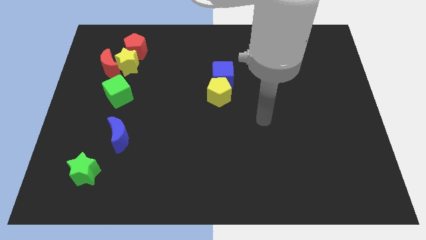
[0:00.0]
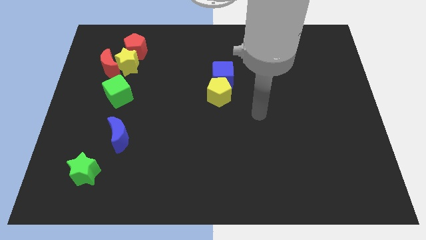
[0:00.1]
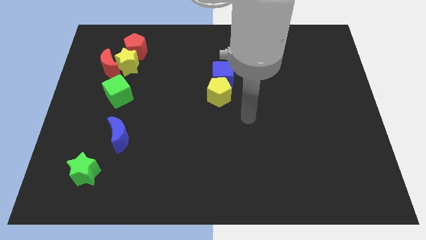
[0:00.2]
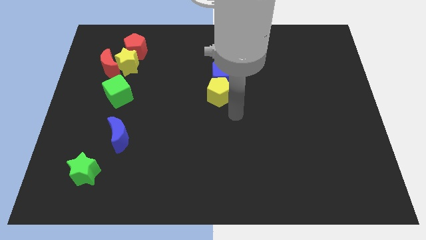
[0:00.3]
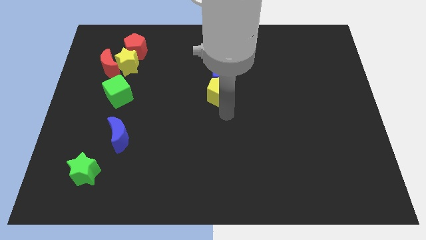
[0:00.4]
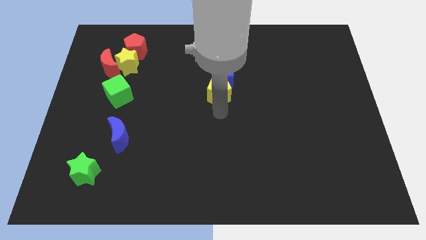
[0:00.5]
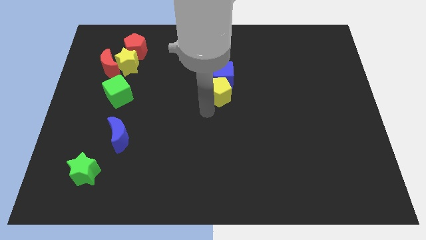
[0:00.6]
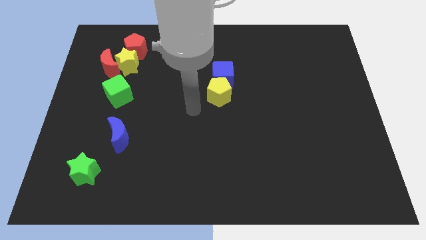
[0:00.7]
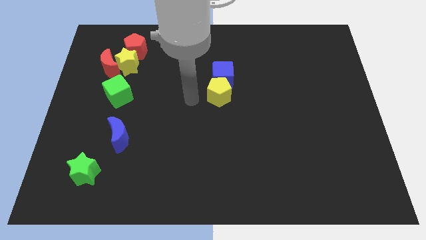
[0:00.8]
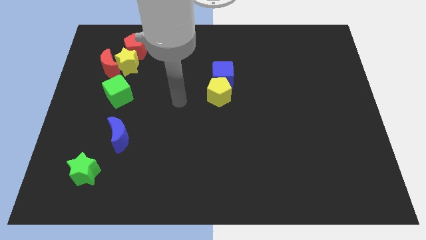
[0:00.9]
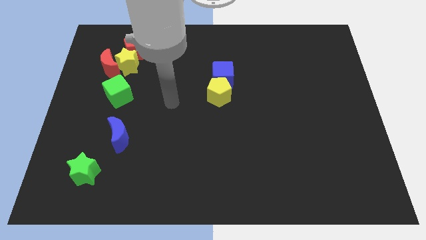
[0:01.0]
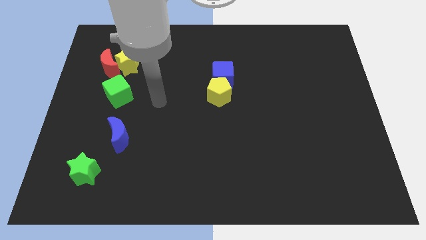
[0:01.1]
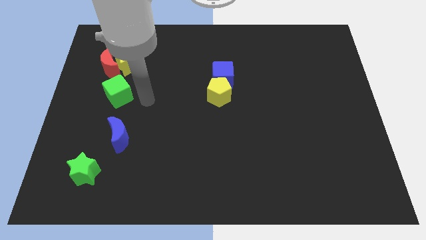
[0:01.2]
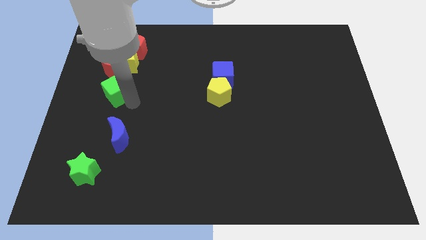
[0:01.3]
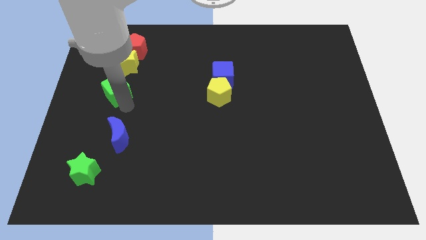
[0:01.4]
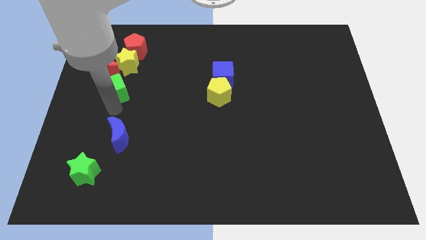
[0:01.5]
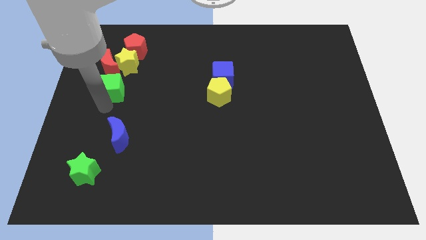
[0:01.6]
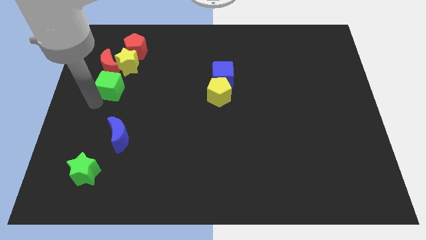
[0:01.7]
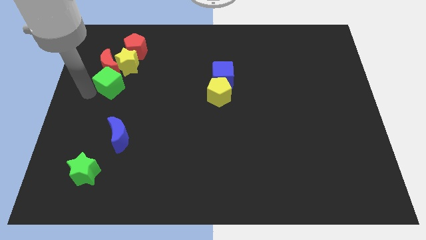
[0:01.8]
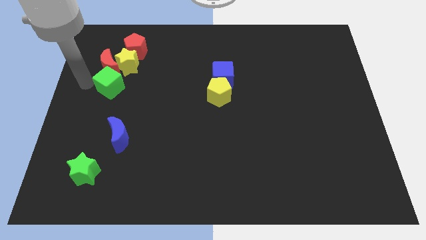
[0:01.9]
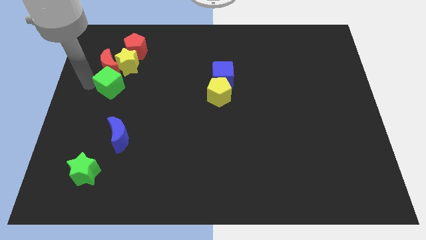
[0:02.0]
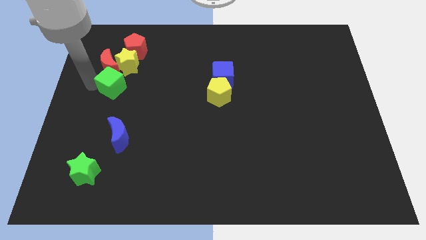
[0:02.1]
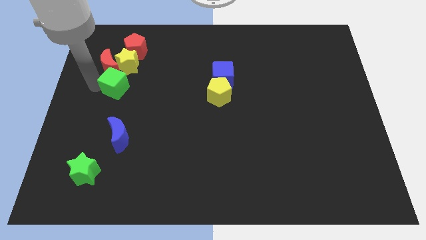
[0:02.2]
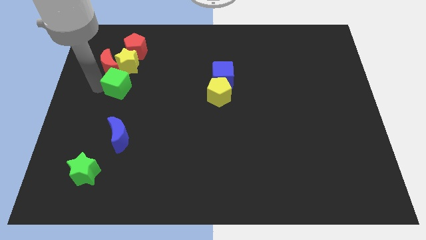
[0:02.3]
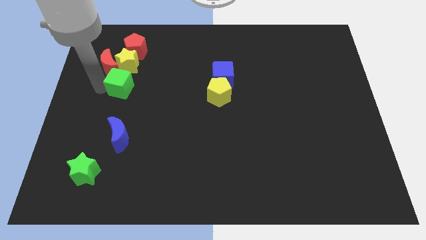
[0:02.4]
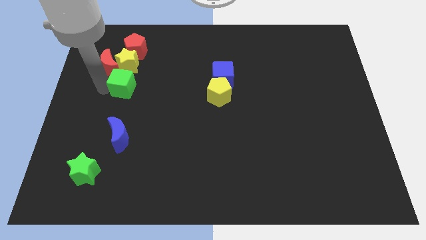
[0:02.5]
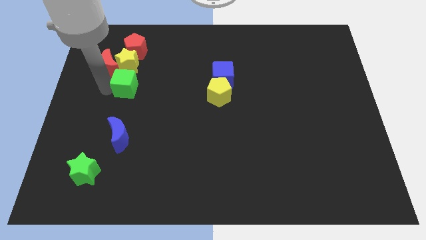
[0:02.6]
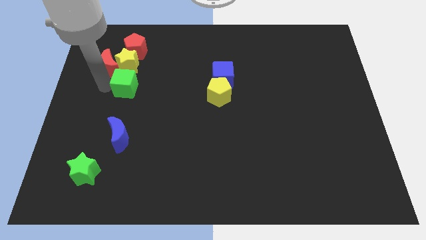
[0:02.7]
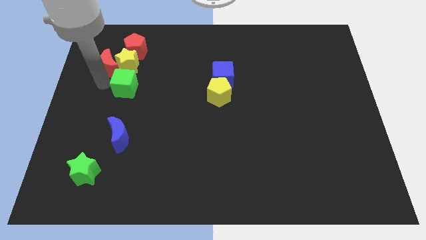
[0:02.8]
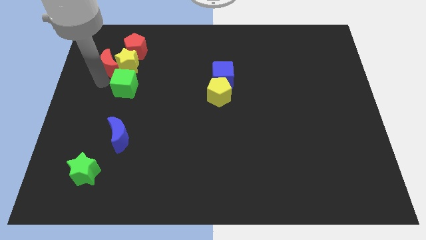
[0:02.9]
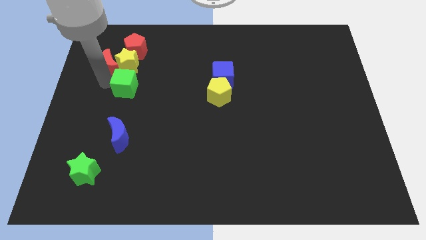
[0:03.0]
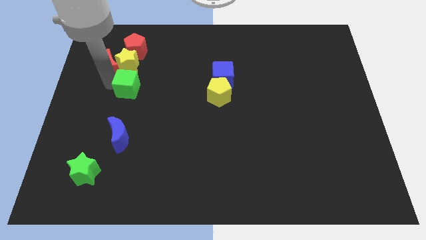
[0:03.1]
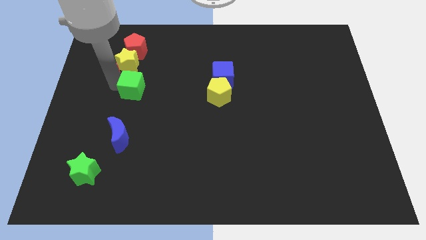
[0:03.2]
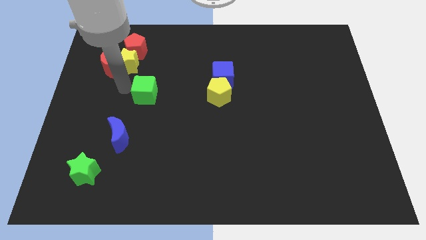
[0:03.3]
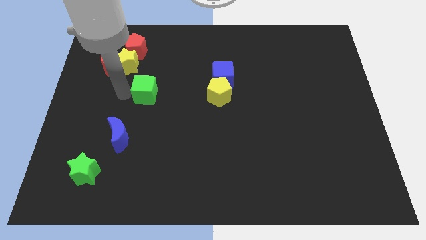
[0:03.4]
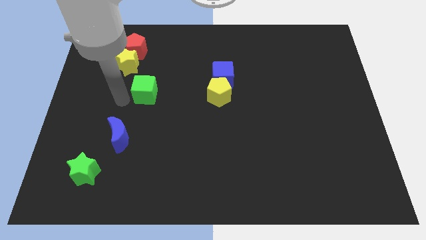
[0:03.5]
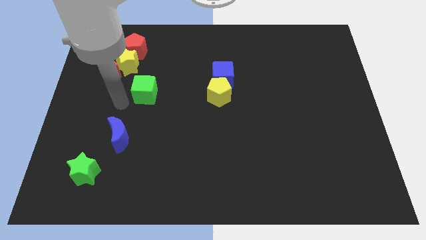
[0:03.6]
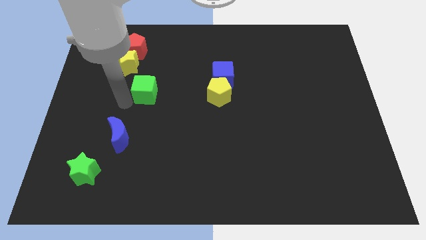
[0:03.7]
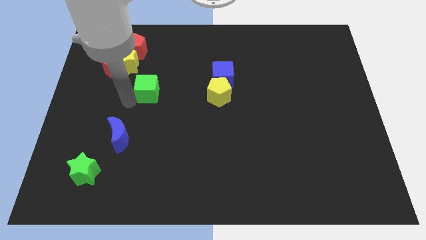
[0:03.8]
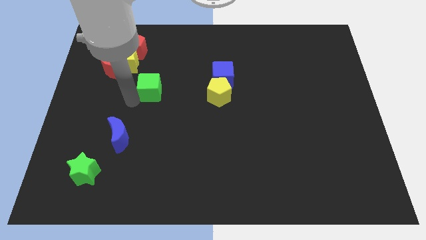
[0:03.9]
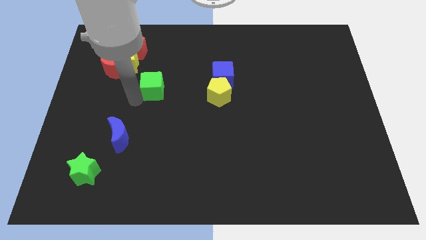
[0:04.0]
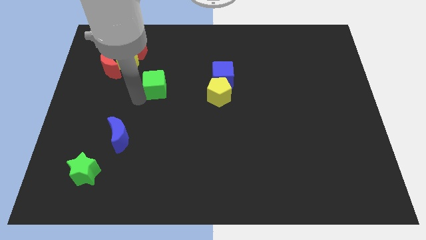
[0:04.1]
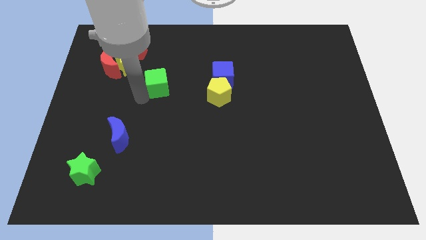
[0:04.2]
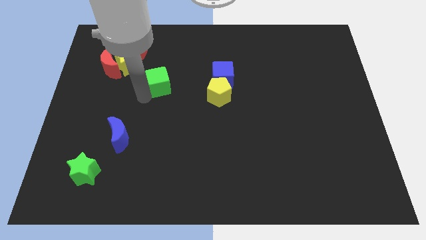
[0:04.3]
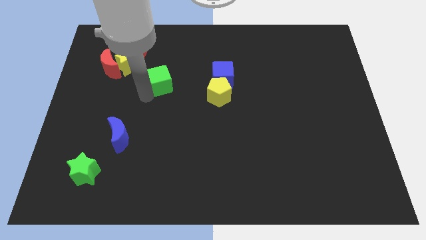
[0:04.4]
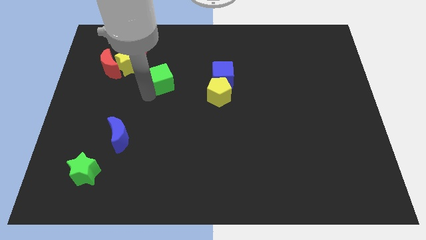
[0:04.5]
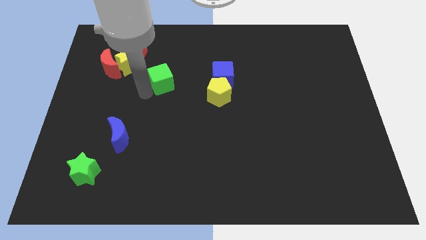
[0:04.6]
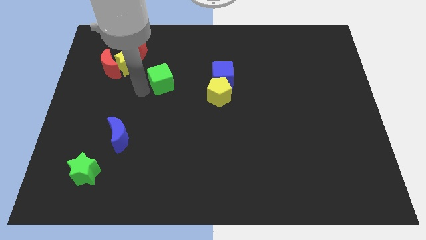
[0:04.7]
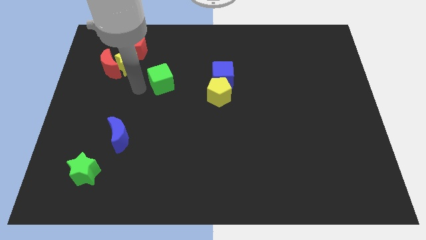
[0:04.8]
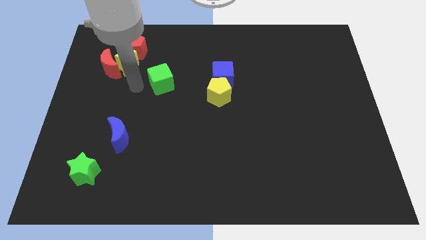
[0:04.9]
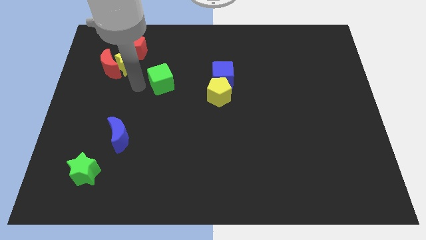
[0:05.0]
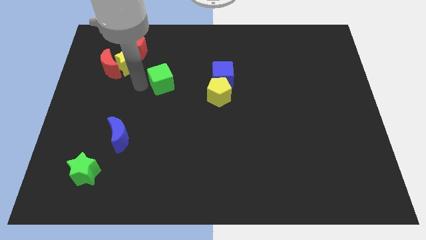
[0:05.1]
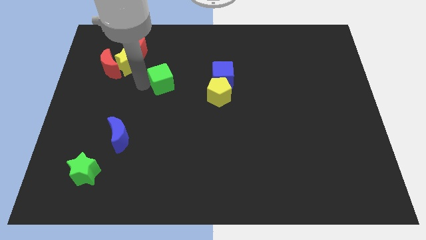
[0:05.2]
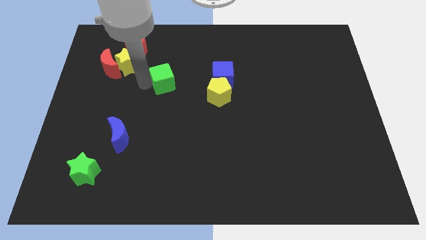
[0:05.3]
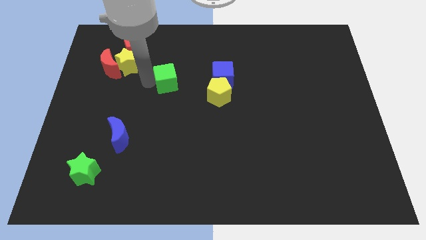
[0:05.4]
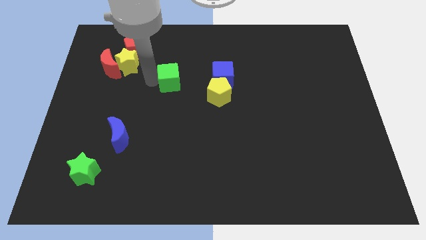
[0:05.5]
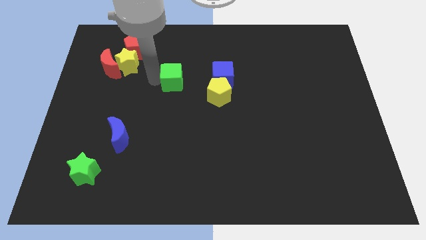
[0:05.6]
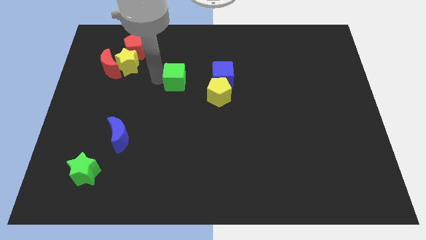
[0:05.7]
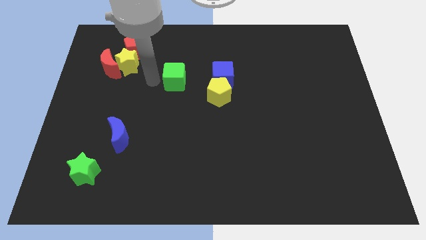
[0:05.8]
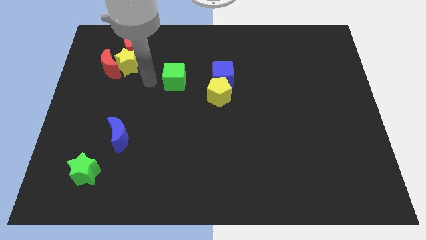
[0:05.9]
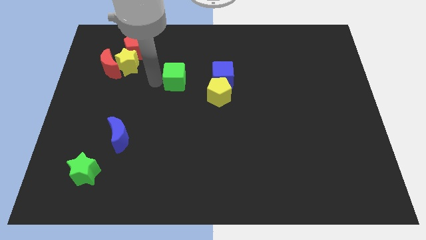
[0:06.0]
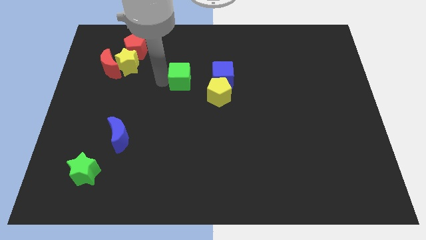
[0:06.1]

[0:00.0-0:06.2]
move the green cube to the top left side of the yellow pentagon

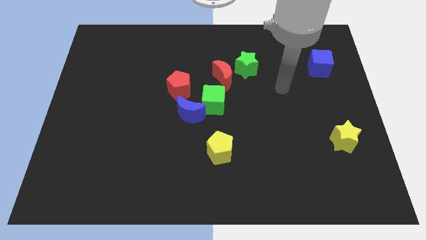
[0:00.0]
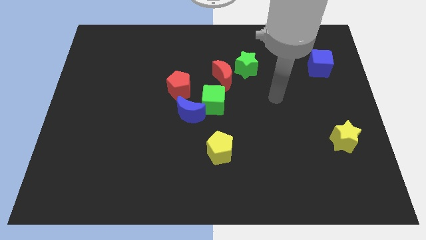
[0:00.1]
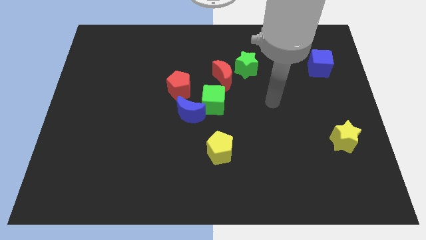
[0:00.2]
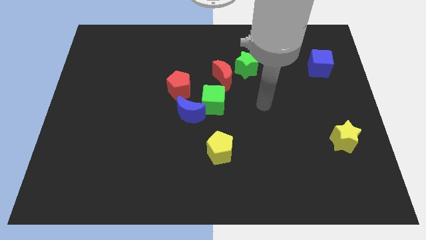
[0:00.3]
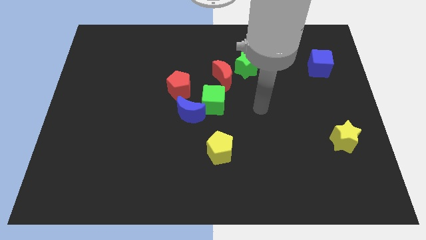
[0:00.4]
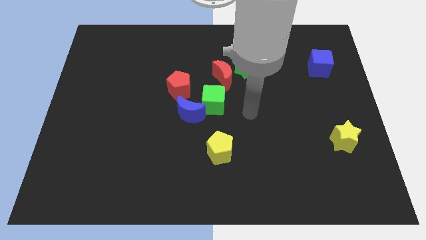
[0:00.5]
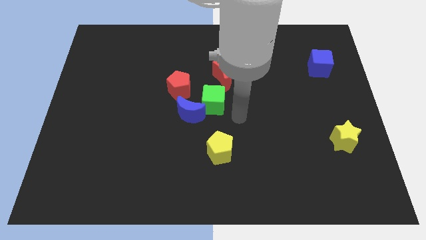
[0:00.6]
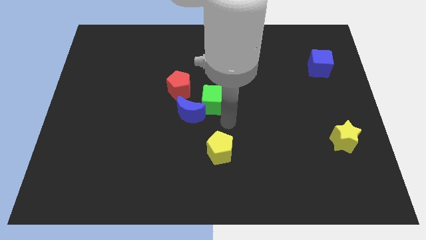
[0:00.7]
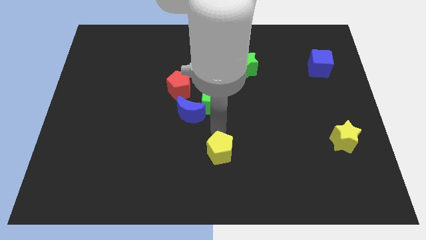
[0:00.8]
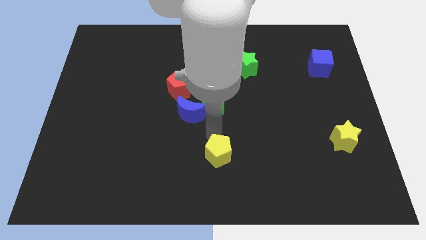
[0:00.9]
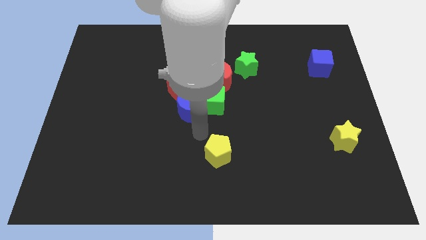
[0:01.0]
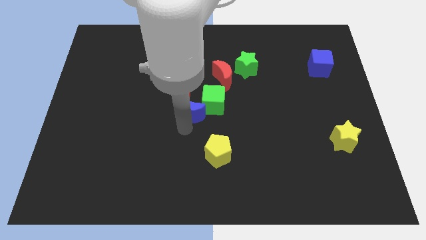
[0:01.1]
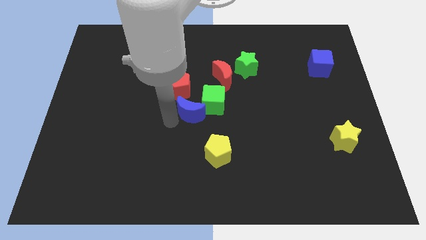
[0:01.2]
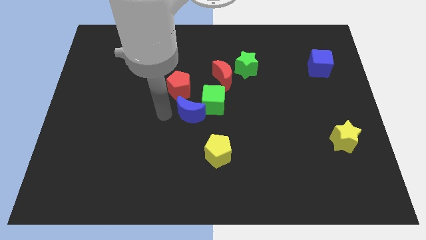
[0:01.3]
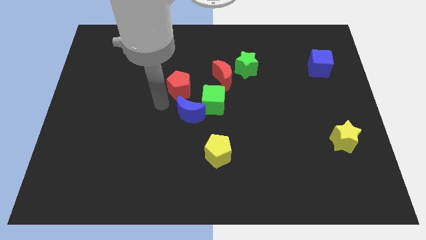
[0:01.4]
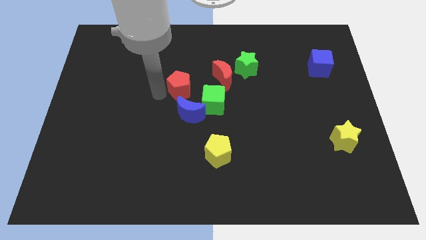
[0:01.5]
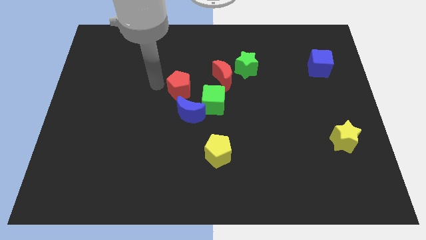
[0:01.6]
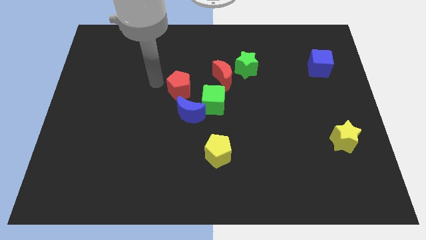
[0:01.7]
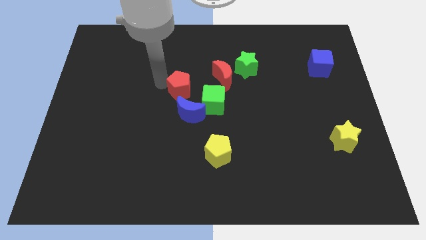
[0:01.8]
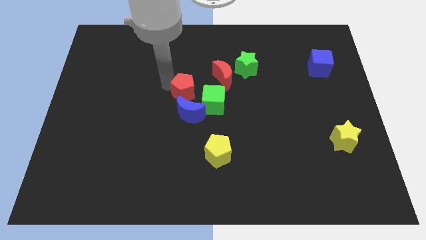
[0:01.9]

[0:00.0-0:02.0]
slide the red pentagon diagonally down and to the left of the red moon
